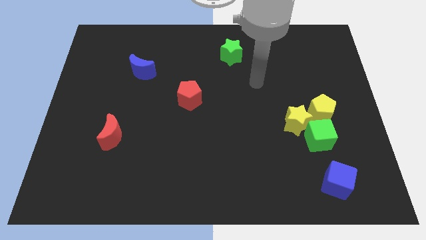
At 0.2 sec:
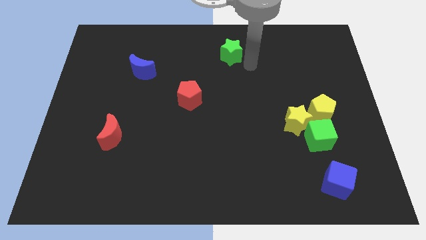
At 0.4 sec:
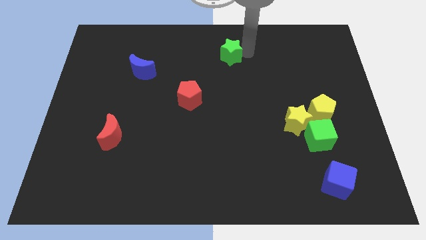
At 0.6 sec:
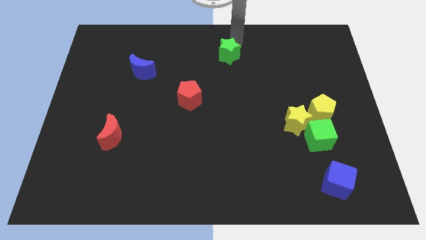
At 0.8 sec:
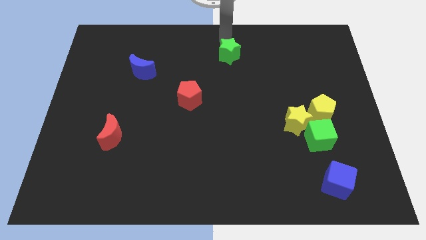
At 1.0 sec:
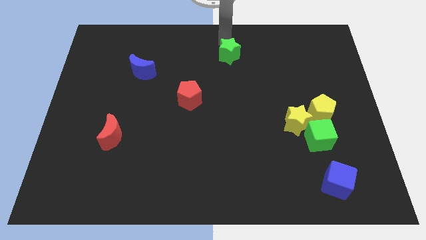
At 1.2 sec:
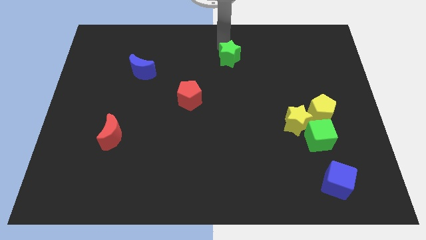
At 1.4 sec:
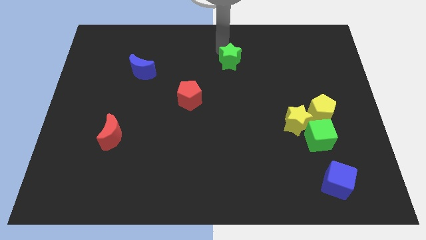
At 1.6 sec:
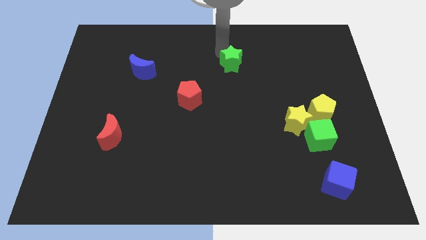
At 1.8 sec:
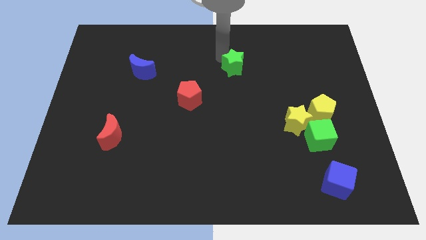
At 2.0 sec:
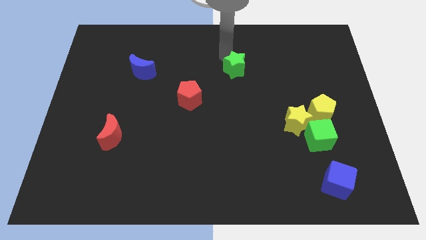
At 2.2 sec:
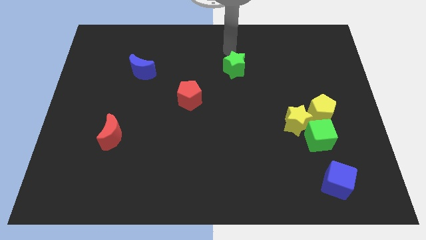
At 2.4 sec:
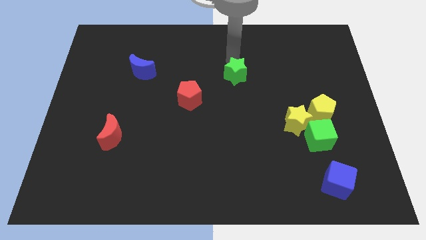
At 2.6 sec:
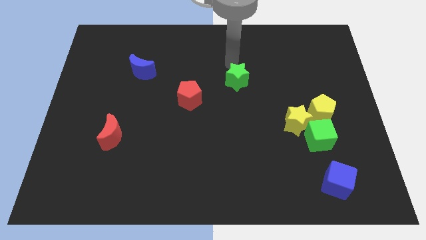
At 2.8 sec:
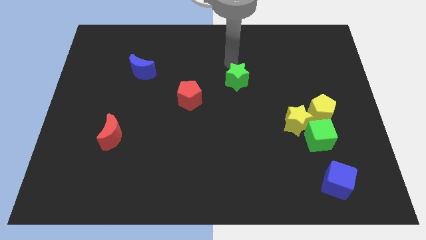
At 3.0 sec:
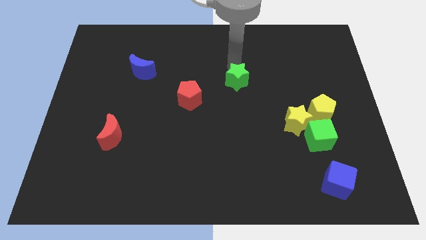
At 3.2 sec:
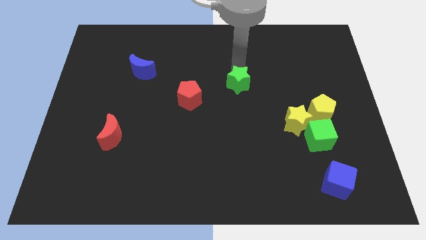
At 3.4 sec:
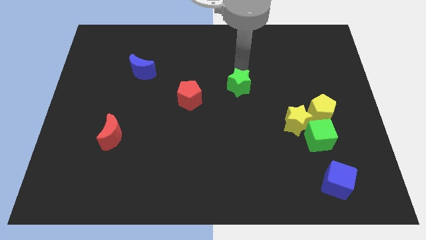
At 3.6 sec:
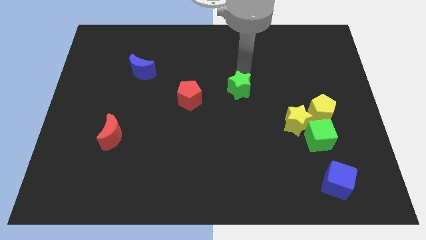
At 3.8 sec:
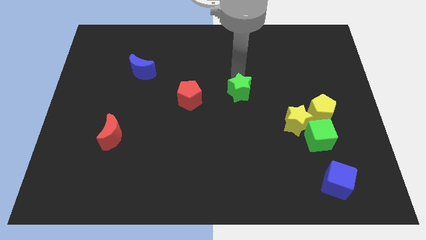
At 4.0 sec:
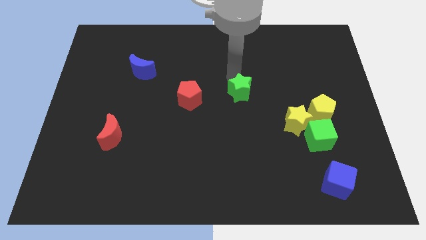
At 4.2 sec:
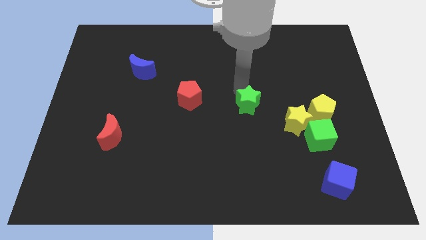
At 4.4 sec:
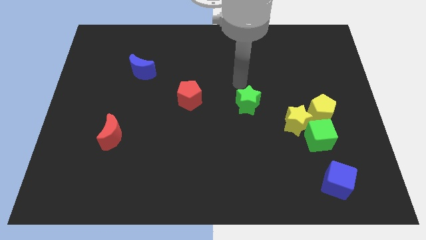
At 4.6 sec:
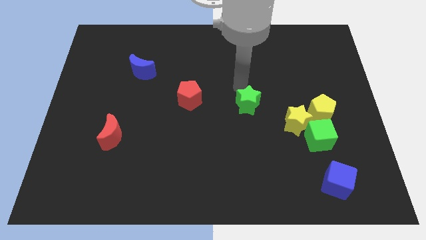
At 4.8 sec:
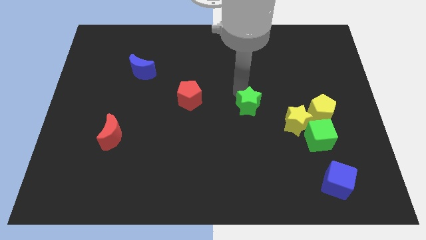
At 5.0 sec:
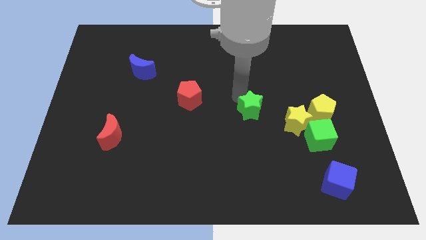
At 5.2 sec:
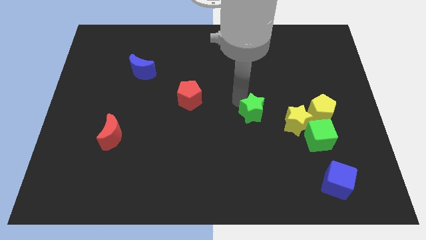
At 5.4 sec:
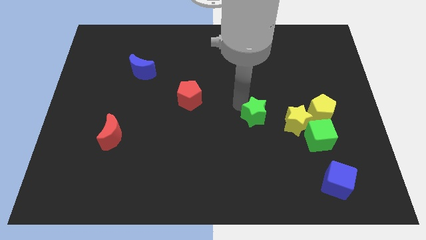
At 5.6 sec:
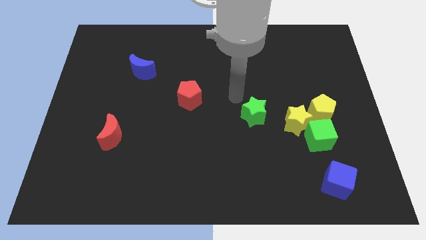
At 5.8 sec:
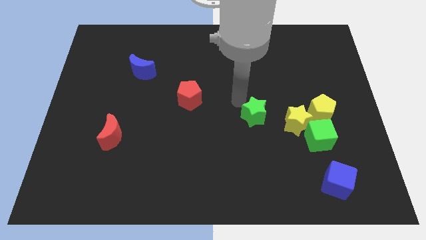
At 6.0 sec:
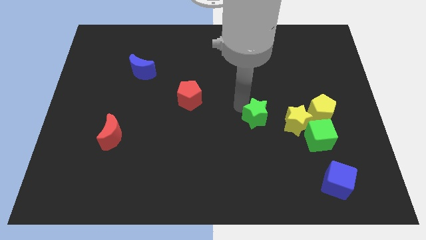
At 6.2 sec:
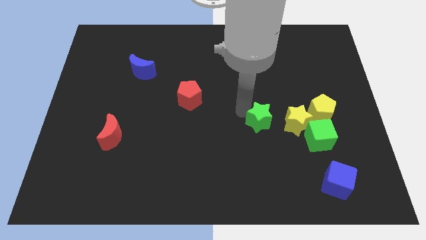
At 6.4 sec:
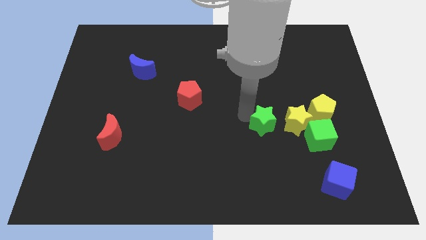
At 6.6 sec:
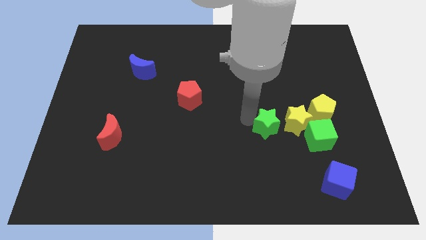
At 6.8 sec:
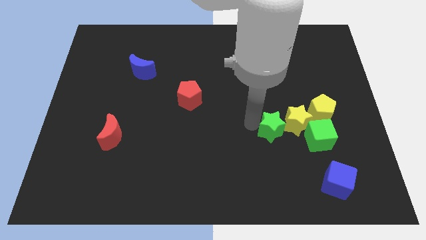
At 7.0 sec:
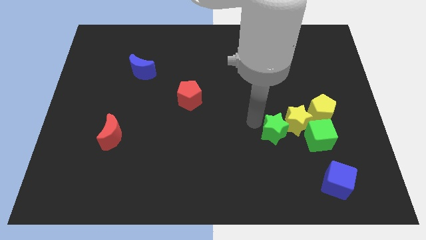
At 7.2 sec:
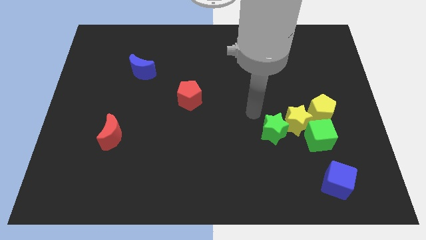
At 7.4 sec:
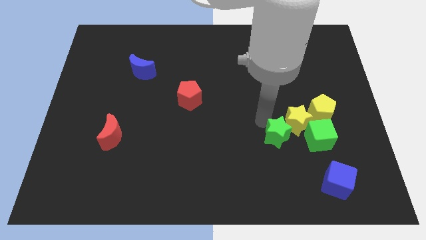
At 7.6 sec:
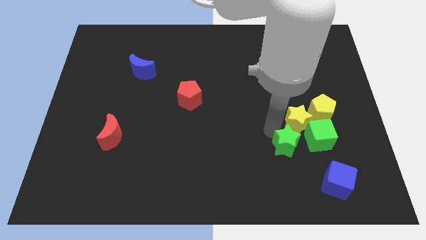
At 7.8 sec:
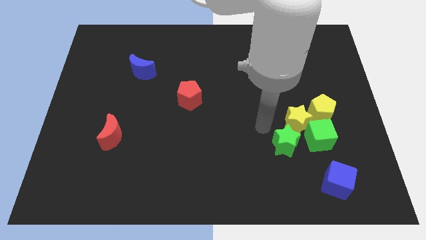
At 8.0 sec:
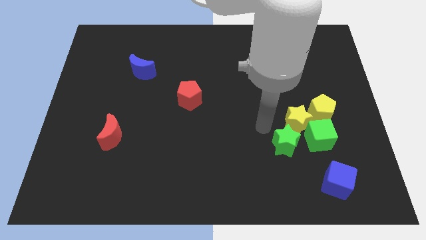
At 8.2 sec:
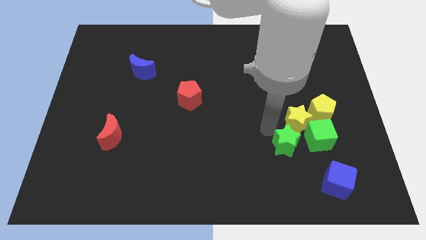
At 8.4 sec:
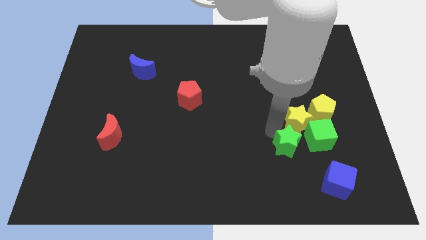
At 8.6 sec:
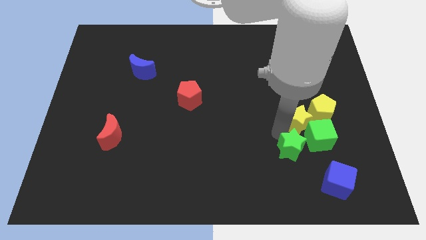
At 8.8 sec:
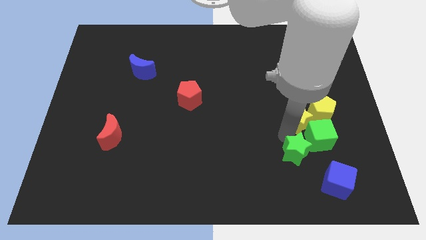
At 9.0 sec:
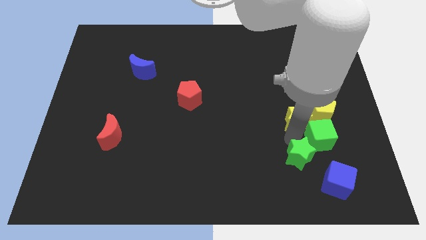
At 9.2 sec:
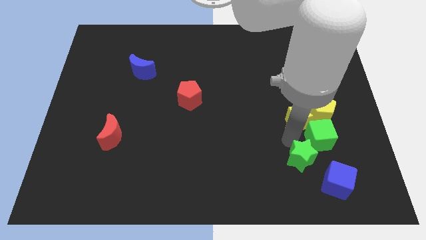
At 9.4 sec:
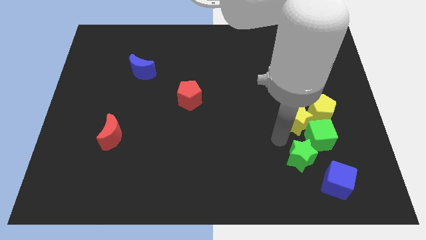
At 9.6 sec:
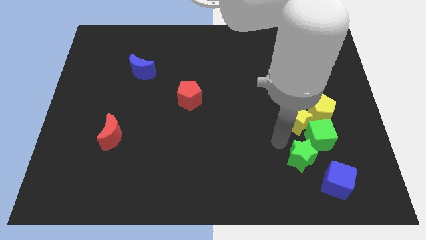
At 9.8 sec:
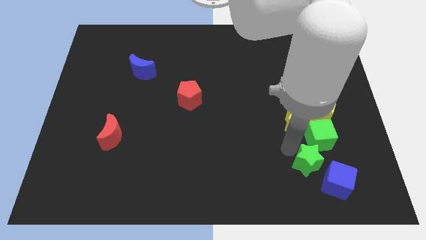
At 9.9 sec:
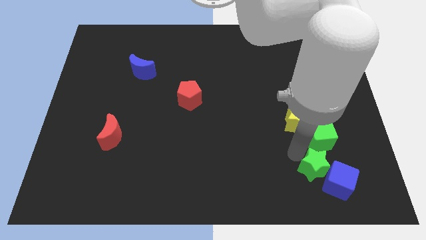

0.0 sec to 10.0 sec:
slide the green star to the blue cube

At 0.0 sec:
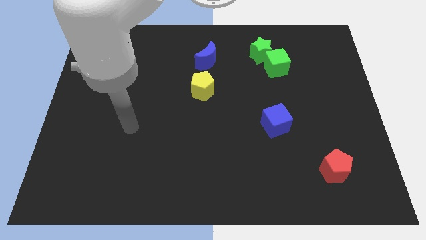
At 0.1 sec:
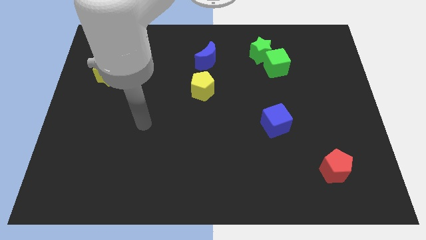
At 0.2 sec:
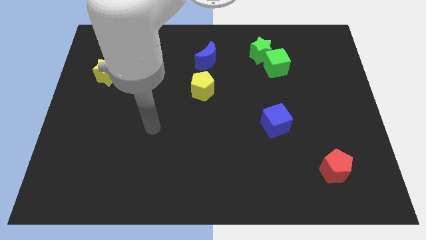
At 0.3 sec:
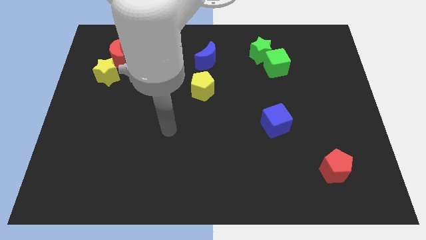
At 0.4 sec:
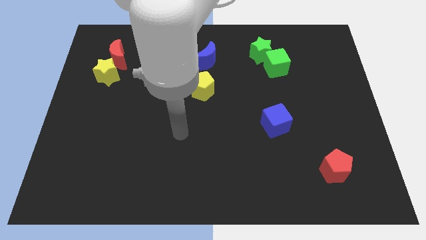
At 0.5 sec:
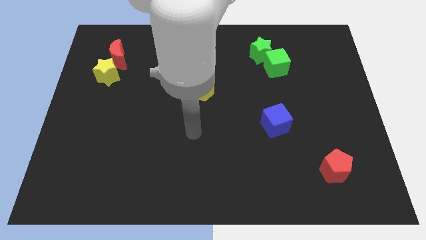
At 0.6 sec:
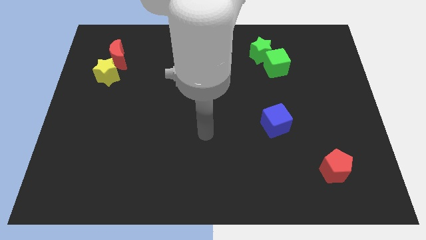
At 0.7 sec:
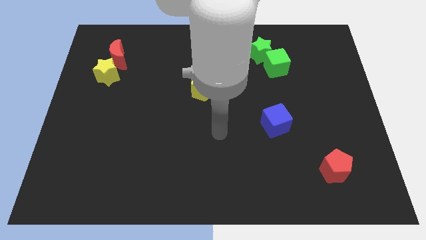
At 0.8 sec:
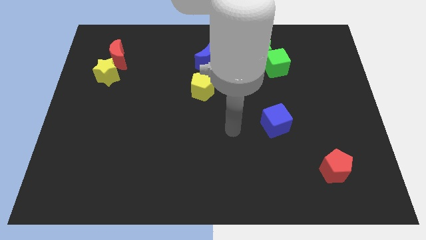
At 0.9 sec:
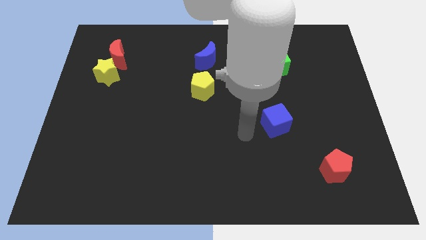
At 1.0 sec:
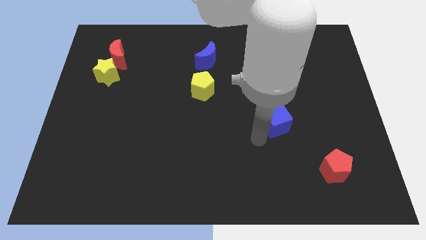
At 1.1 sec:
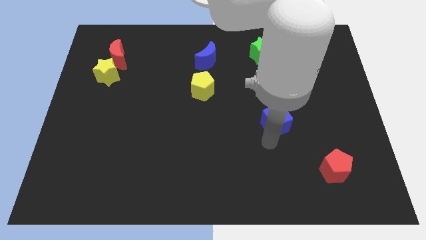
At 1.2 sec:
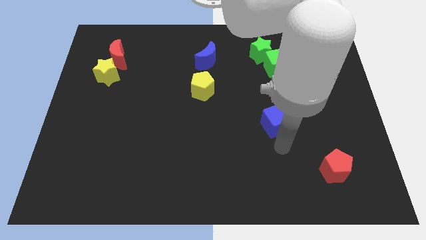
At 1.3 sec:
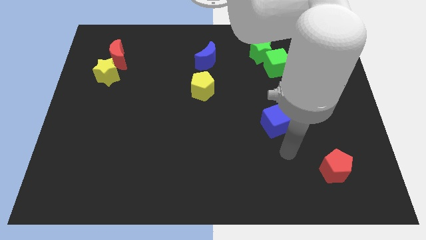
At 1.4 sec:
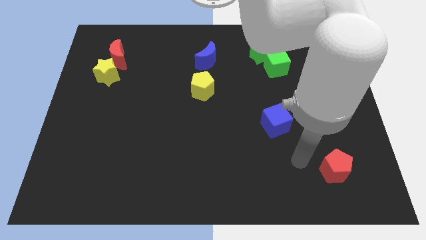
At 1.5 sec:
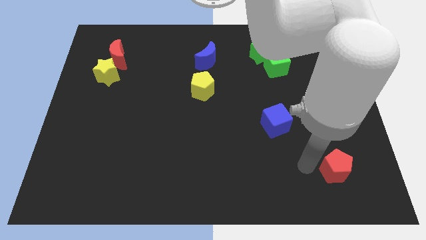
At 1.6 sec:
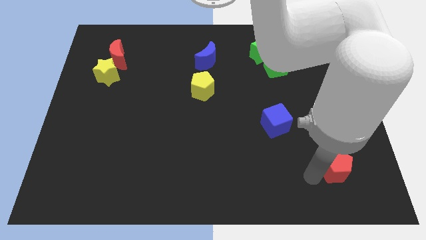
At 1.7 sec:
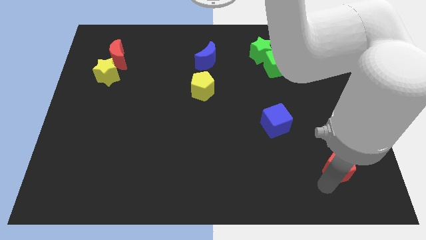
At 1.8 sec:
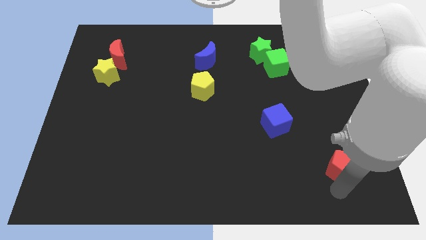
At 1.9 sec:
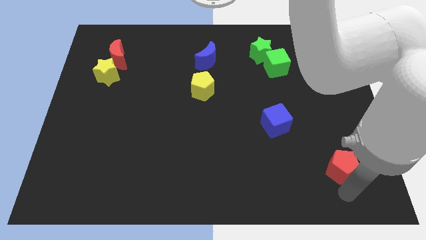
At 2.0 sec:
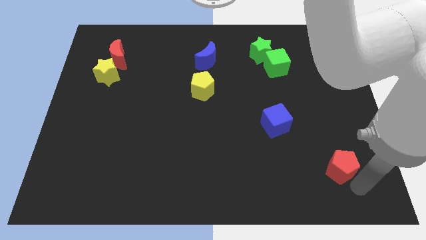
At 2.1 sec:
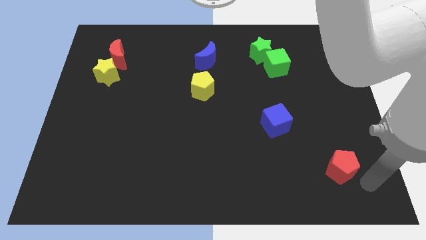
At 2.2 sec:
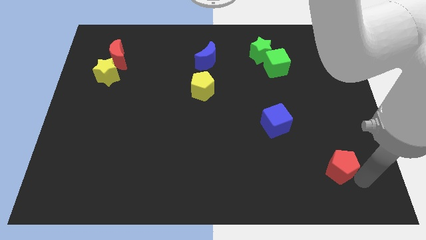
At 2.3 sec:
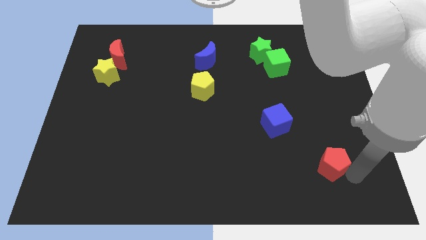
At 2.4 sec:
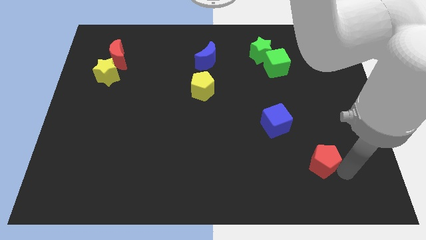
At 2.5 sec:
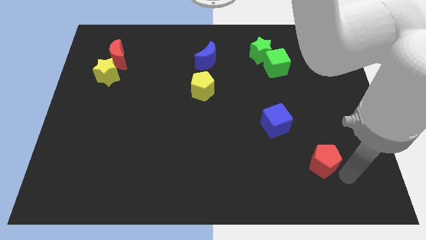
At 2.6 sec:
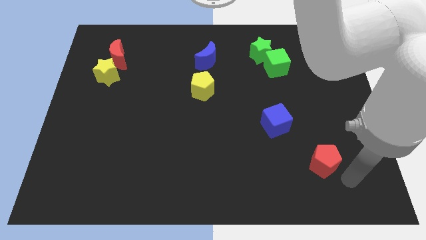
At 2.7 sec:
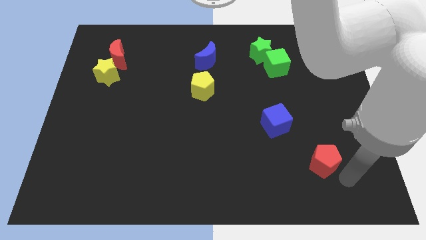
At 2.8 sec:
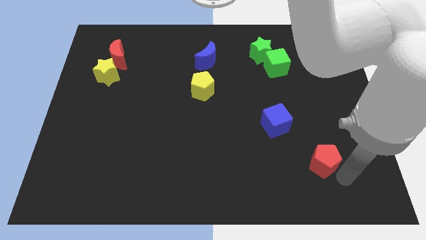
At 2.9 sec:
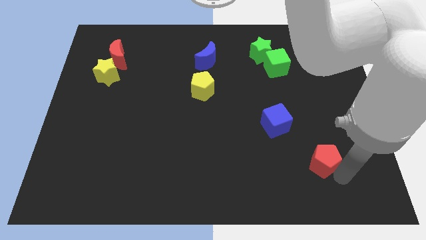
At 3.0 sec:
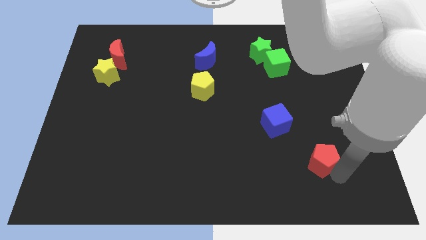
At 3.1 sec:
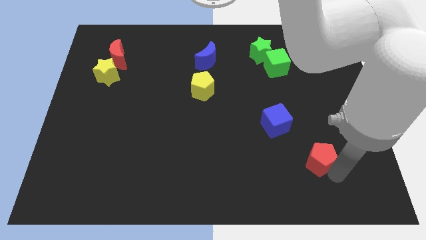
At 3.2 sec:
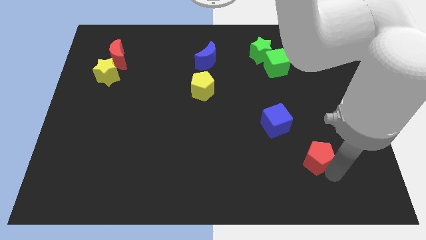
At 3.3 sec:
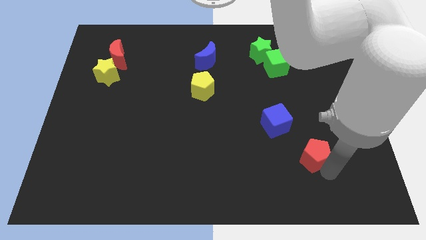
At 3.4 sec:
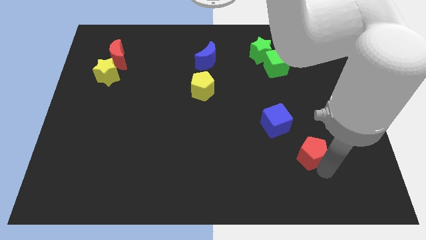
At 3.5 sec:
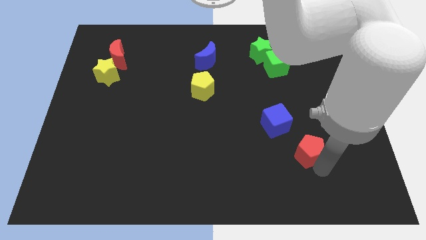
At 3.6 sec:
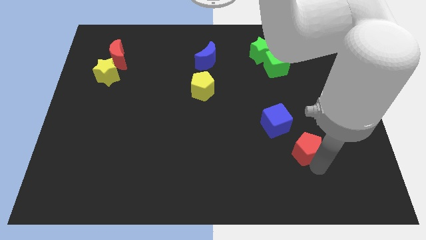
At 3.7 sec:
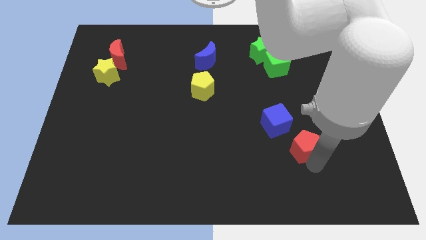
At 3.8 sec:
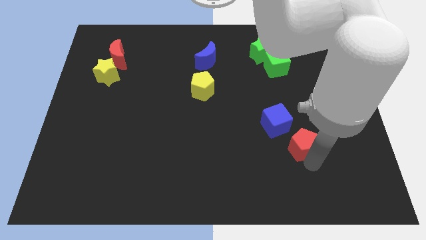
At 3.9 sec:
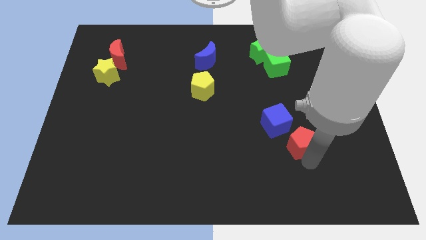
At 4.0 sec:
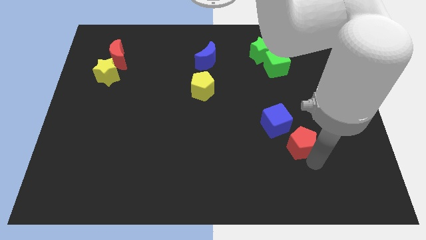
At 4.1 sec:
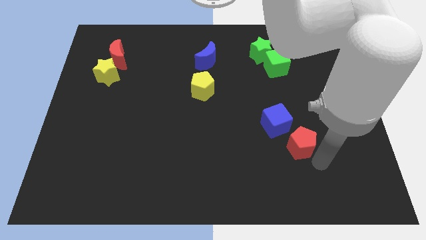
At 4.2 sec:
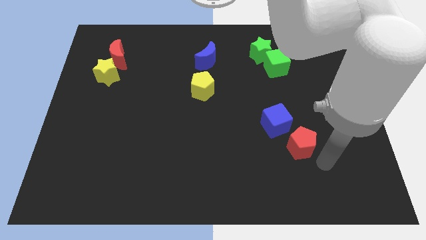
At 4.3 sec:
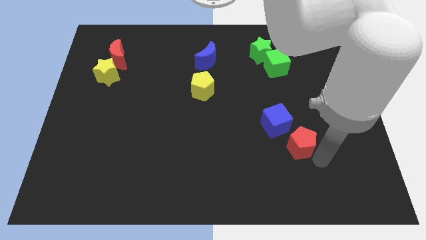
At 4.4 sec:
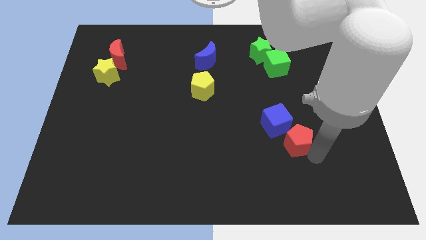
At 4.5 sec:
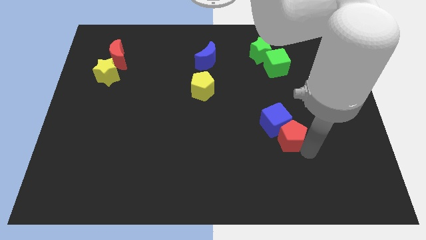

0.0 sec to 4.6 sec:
slide the red pentagon next to the blue cube
